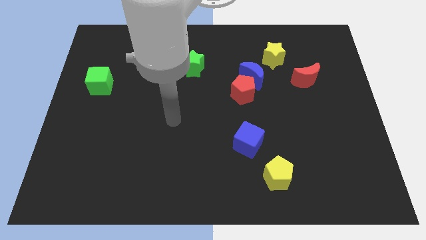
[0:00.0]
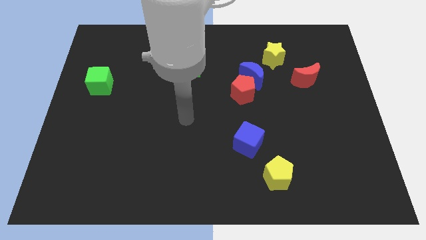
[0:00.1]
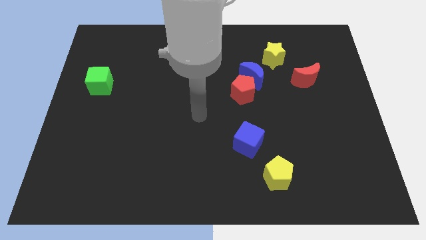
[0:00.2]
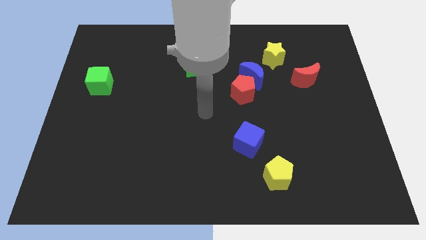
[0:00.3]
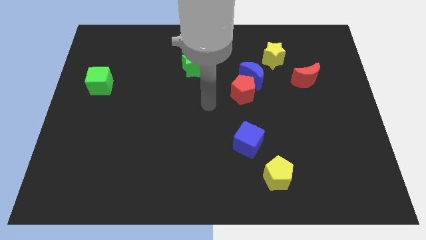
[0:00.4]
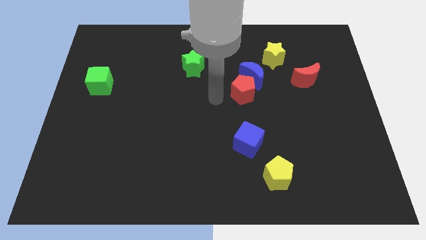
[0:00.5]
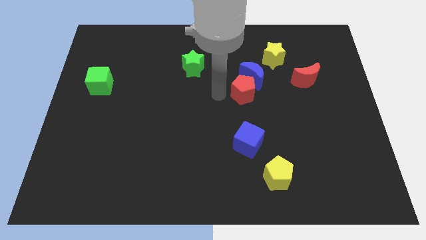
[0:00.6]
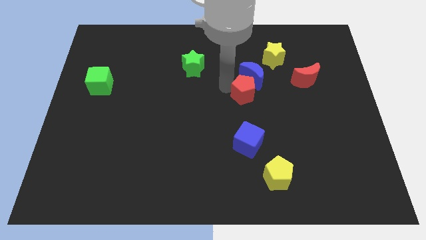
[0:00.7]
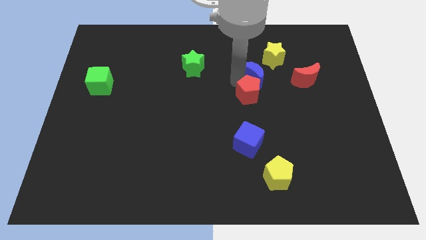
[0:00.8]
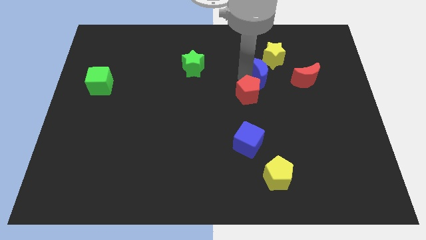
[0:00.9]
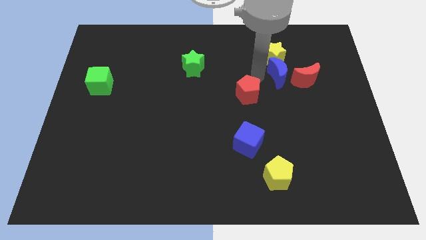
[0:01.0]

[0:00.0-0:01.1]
pull the red pentagon apart from the blue moon

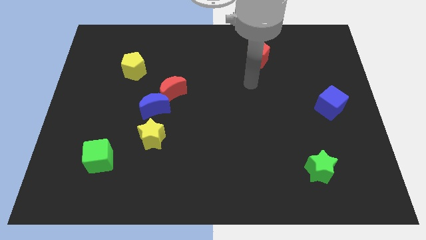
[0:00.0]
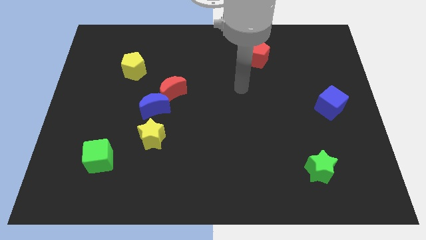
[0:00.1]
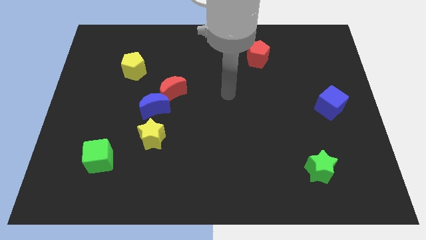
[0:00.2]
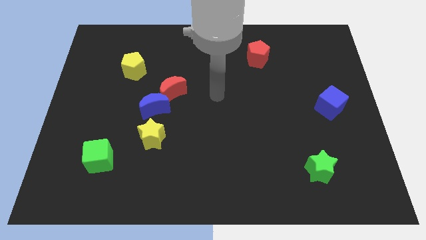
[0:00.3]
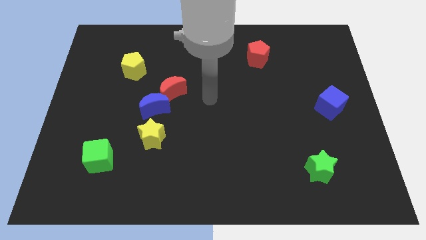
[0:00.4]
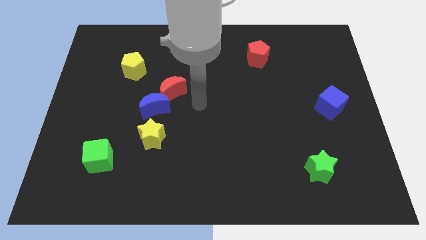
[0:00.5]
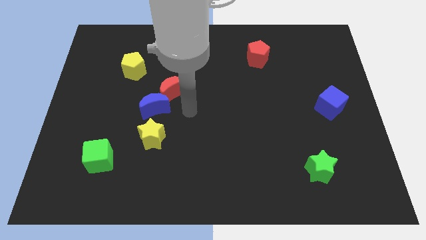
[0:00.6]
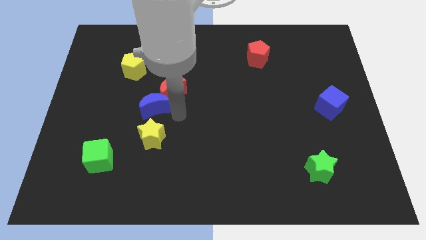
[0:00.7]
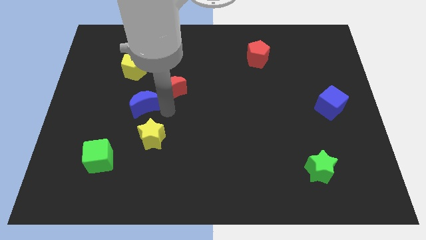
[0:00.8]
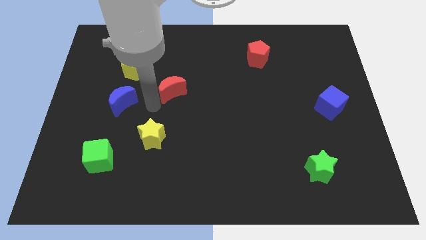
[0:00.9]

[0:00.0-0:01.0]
pull the red moon apart from the blue moon

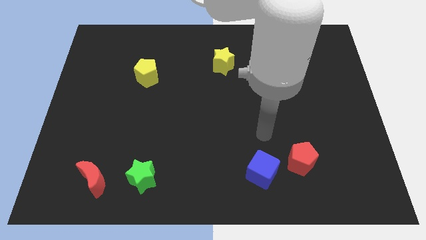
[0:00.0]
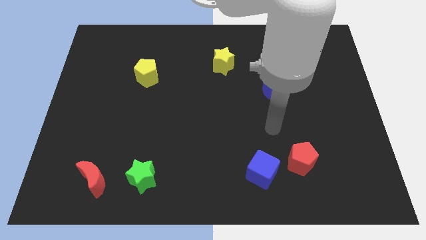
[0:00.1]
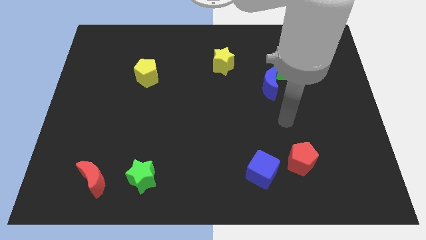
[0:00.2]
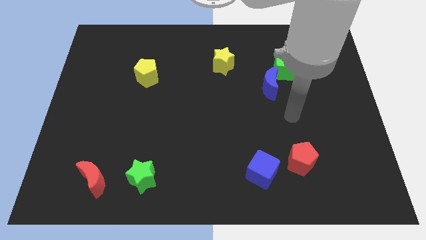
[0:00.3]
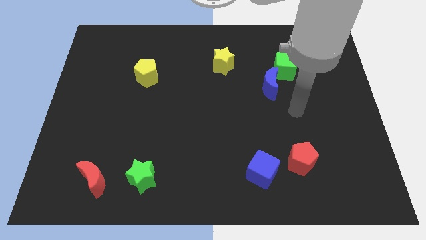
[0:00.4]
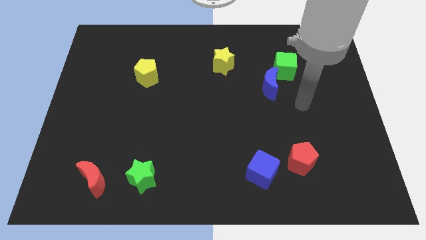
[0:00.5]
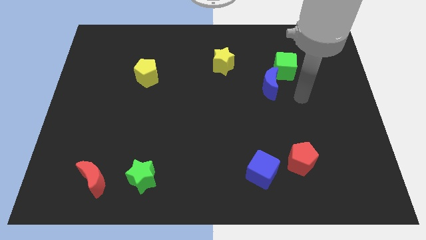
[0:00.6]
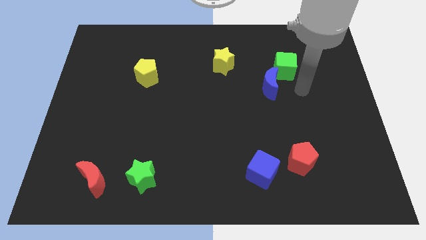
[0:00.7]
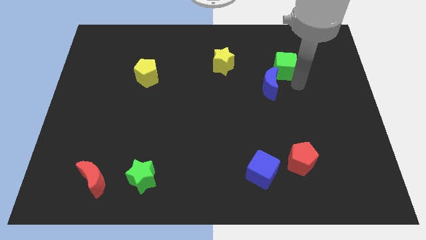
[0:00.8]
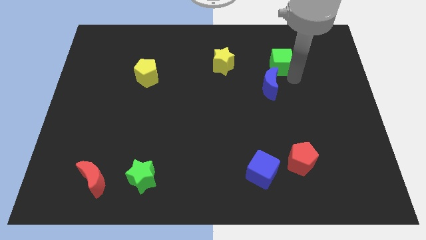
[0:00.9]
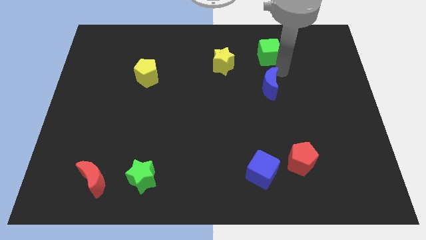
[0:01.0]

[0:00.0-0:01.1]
move the blue moon away from the green cube

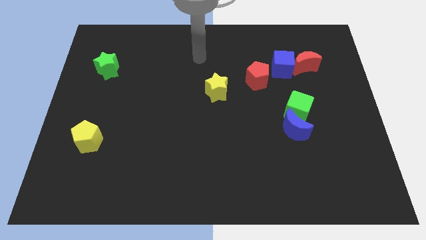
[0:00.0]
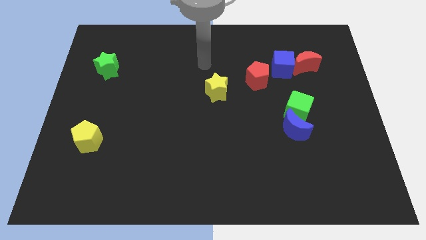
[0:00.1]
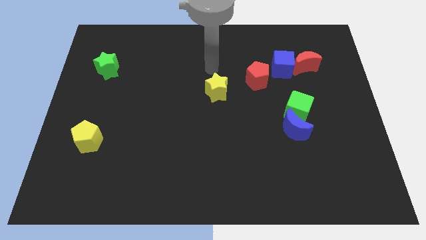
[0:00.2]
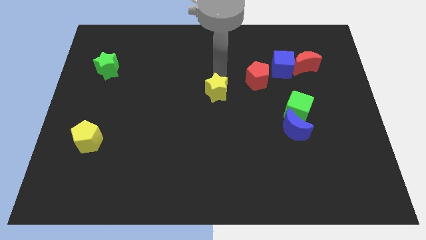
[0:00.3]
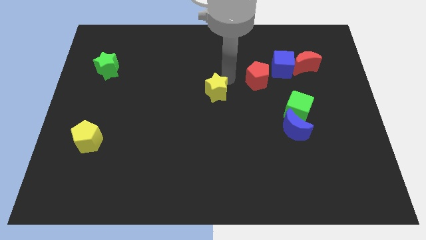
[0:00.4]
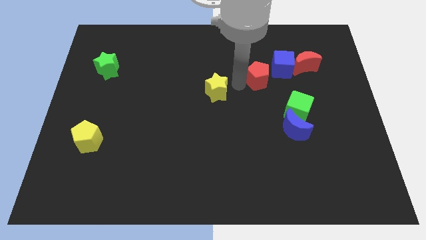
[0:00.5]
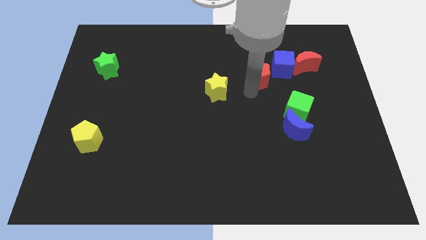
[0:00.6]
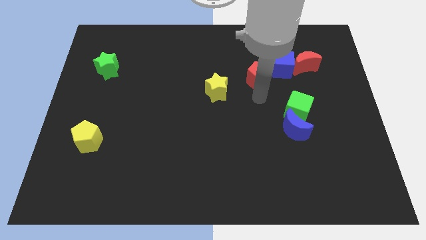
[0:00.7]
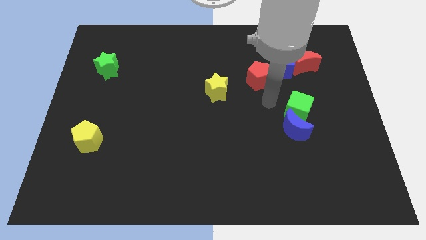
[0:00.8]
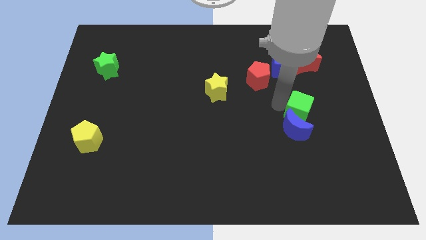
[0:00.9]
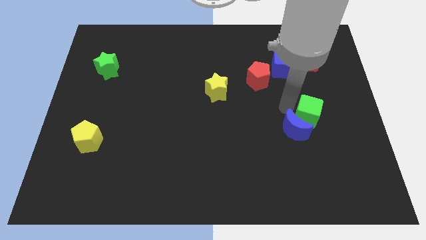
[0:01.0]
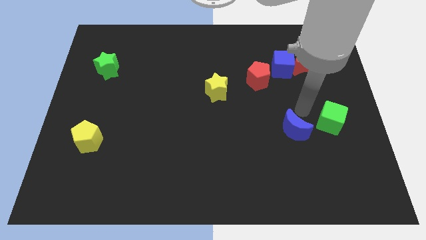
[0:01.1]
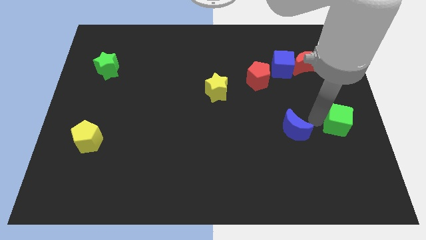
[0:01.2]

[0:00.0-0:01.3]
separate the blue moon from the green cube

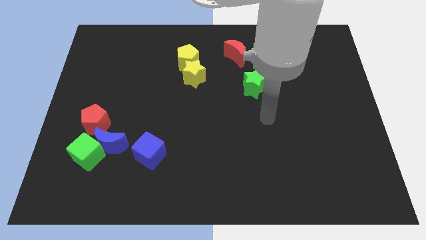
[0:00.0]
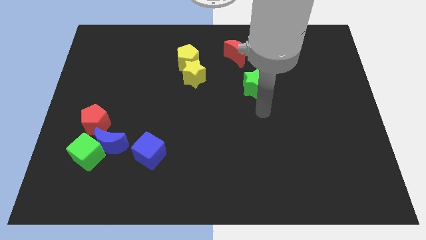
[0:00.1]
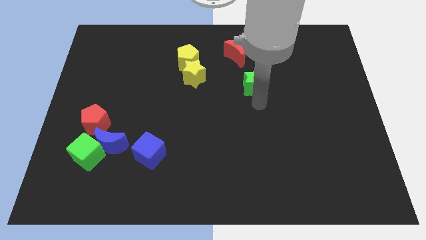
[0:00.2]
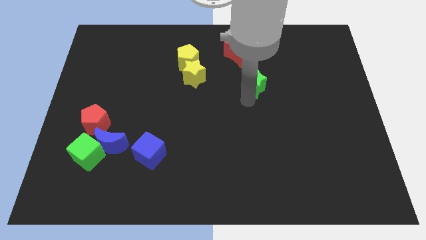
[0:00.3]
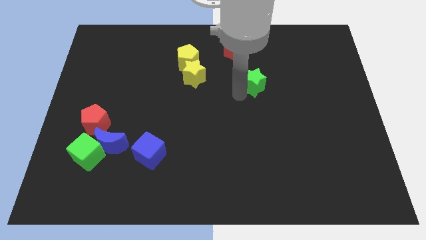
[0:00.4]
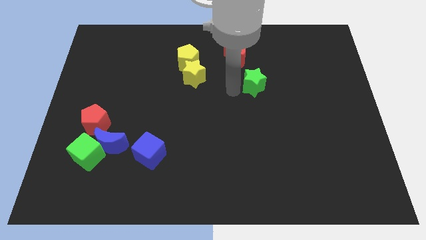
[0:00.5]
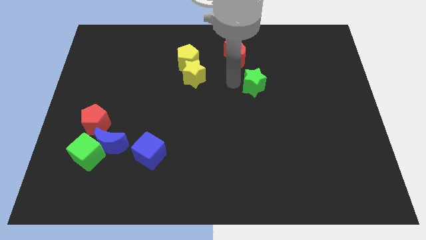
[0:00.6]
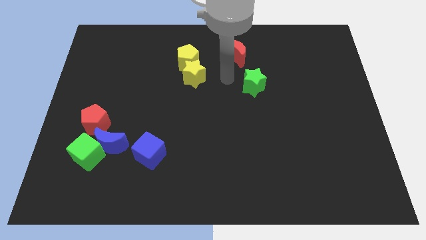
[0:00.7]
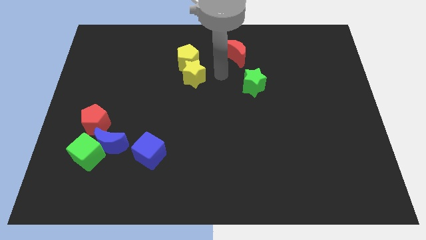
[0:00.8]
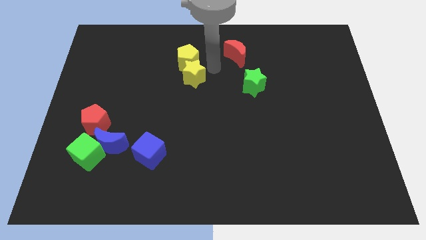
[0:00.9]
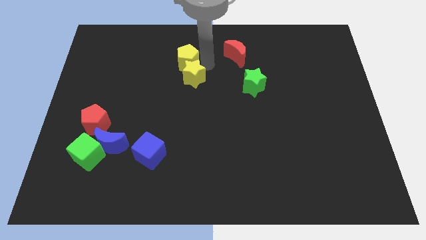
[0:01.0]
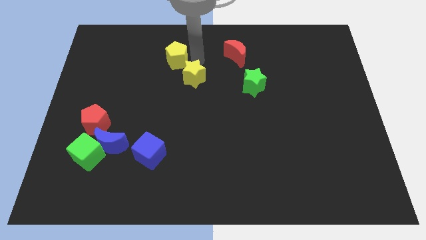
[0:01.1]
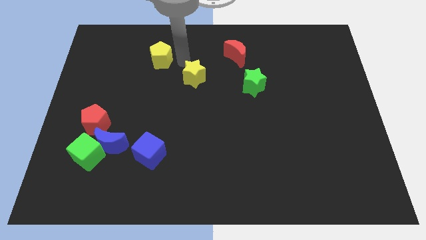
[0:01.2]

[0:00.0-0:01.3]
separate the yellow star from the yellow pentagon

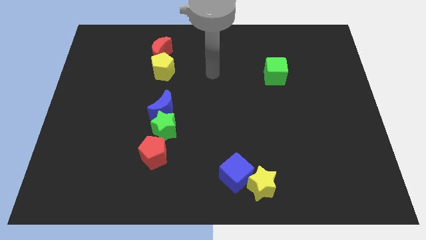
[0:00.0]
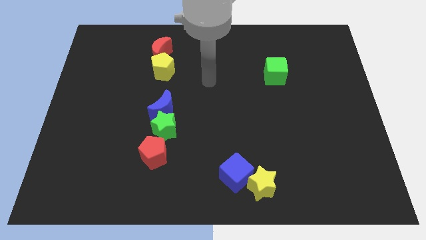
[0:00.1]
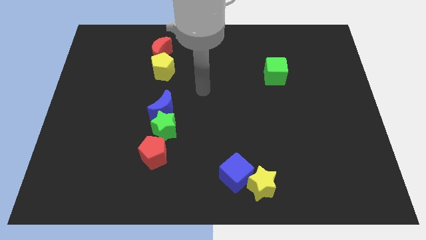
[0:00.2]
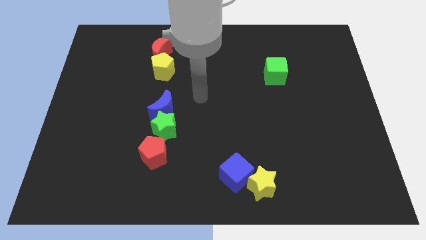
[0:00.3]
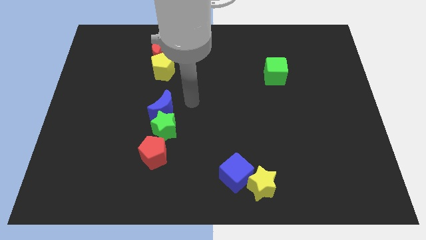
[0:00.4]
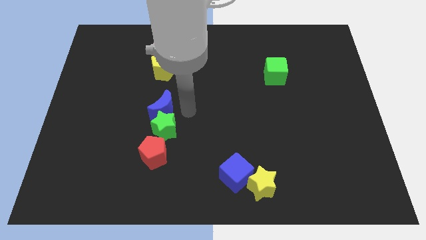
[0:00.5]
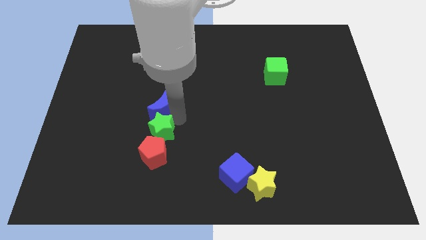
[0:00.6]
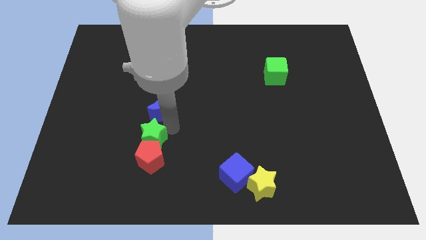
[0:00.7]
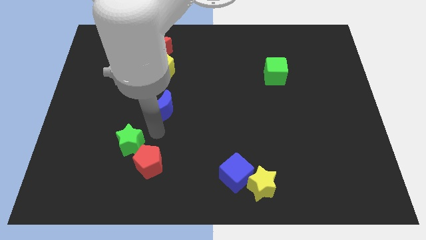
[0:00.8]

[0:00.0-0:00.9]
pull the blue moon apart from the green star

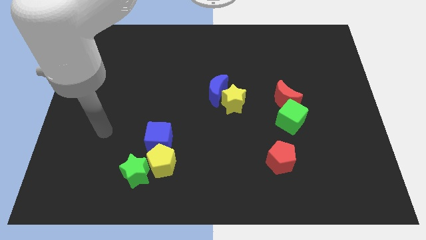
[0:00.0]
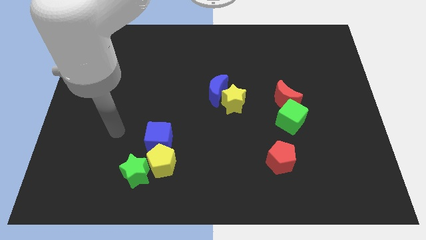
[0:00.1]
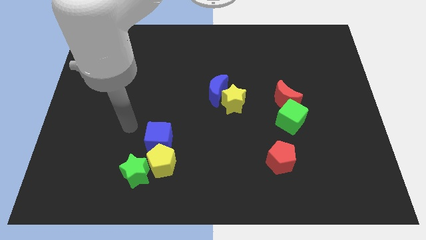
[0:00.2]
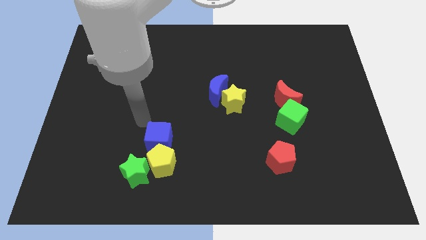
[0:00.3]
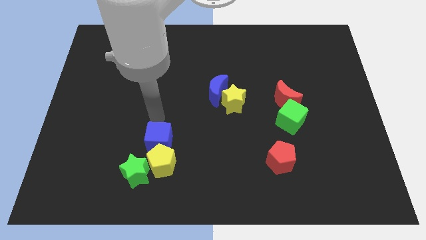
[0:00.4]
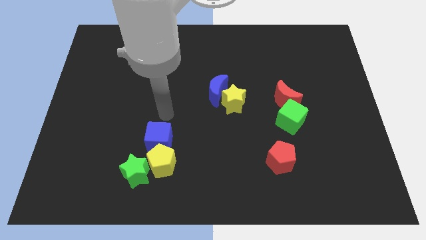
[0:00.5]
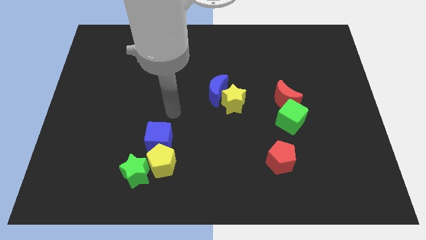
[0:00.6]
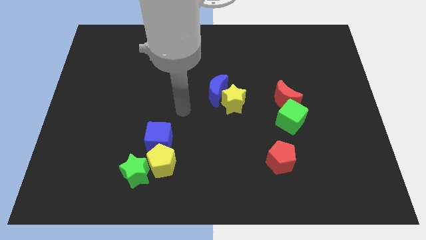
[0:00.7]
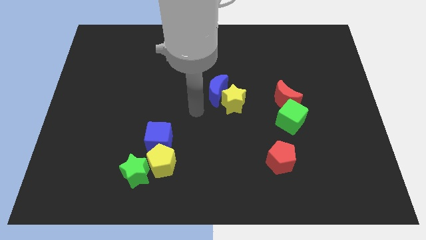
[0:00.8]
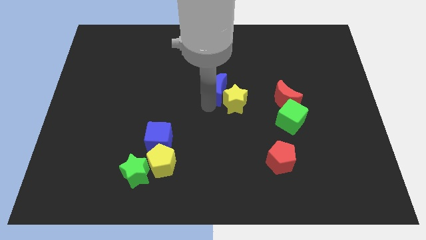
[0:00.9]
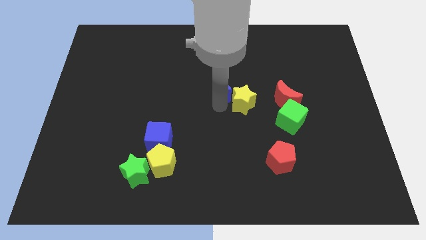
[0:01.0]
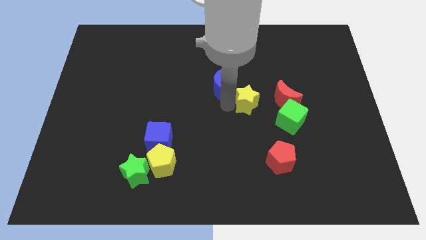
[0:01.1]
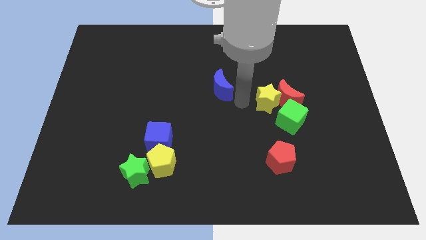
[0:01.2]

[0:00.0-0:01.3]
separate the blue moon from the yellow star

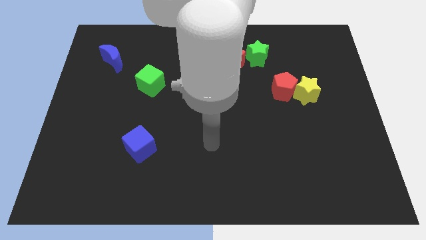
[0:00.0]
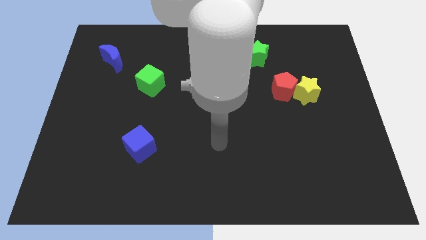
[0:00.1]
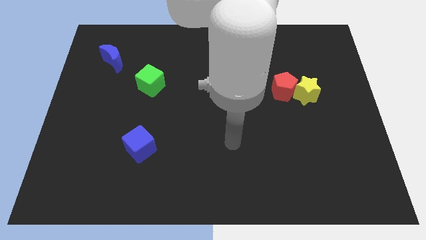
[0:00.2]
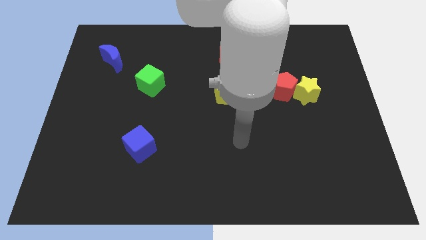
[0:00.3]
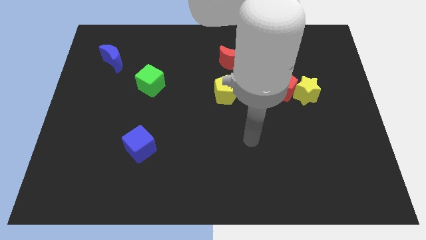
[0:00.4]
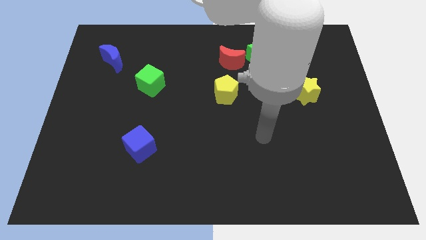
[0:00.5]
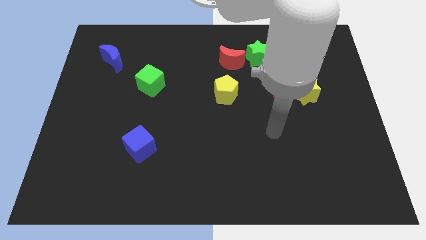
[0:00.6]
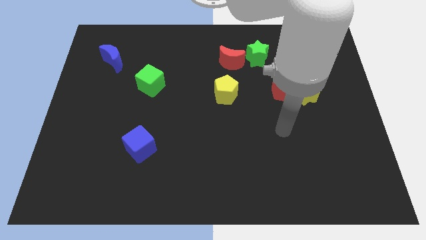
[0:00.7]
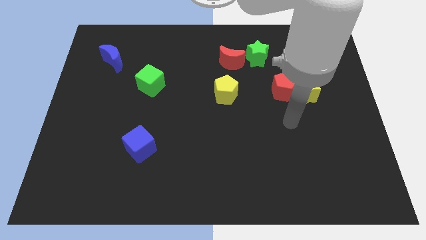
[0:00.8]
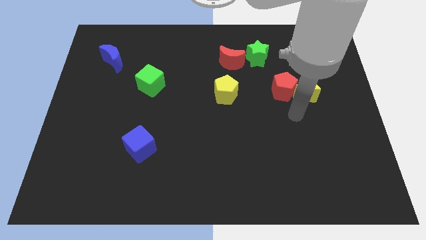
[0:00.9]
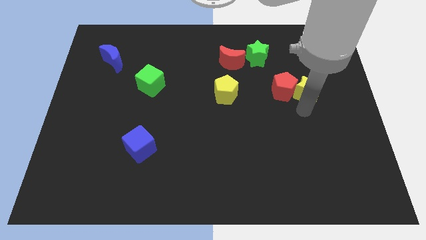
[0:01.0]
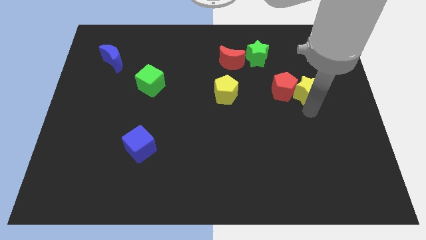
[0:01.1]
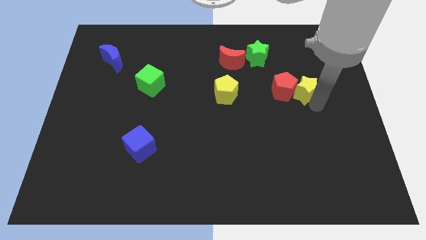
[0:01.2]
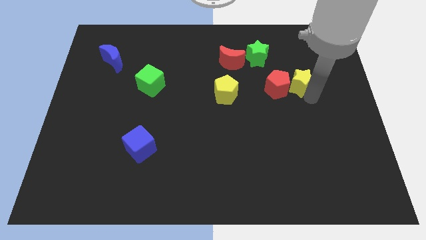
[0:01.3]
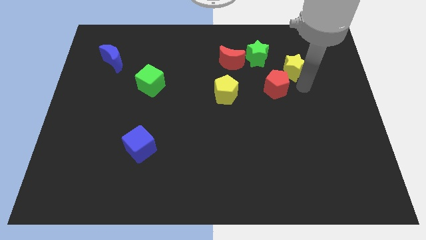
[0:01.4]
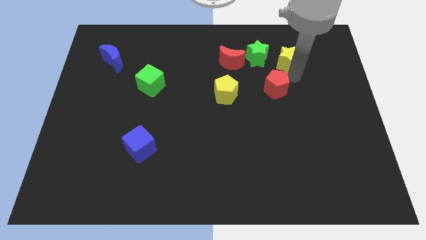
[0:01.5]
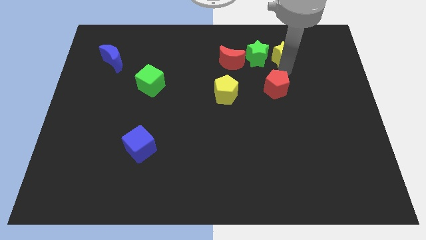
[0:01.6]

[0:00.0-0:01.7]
separate the red pentagon from the yellow star
